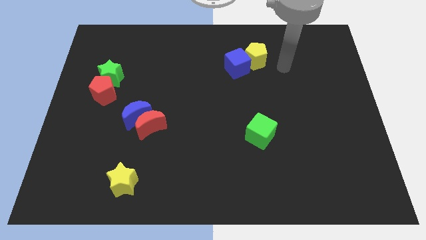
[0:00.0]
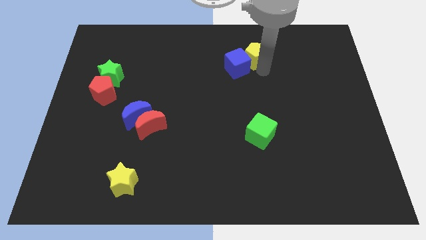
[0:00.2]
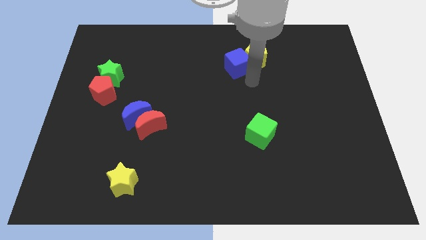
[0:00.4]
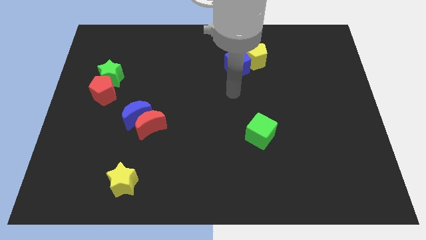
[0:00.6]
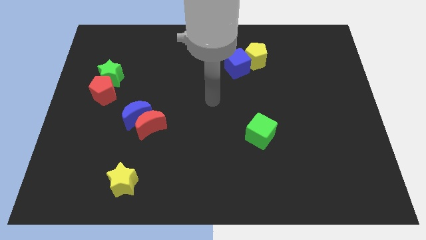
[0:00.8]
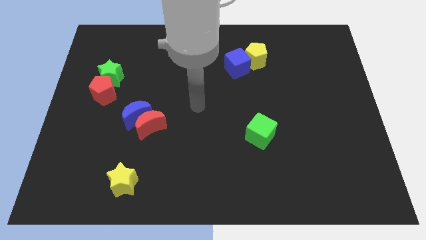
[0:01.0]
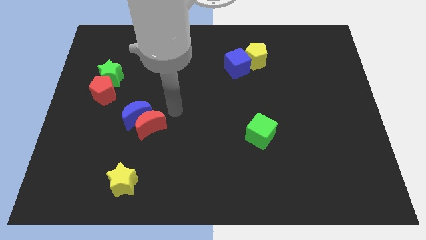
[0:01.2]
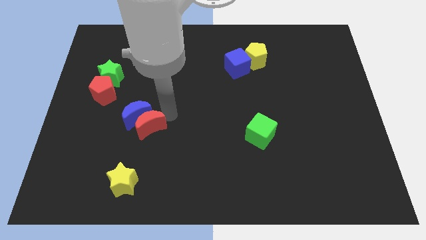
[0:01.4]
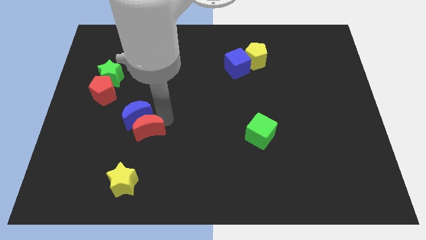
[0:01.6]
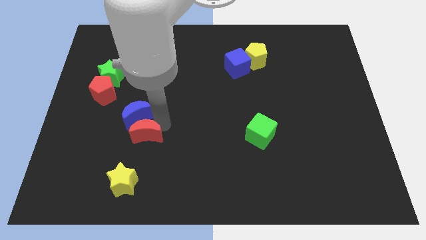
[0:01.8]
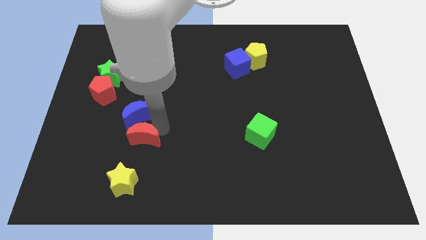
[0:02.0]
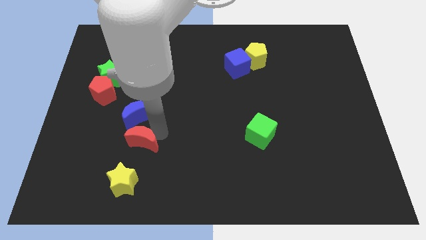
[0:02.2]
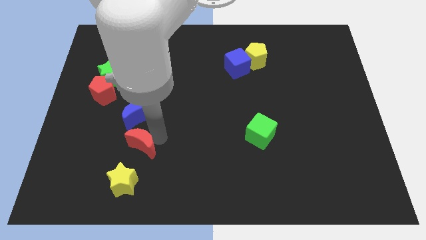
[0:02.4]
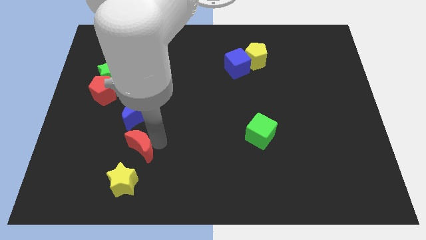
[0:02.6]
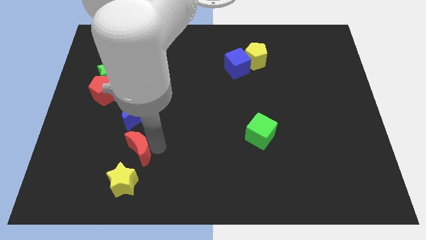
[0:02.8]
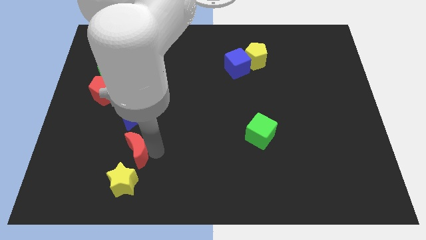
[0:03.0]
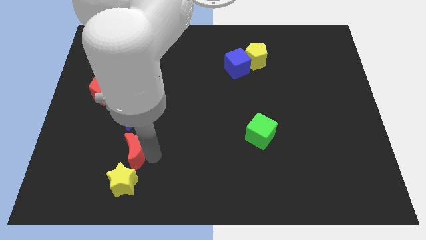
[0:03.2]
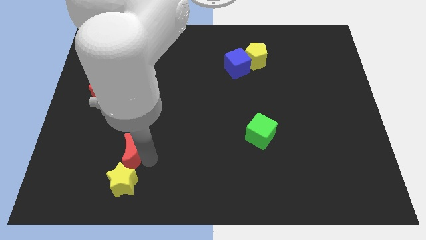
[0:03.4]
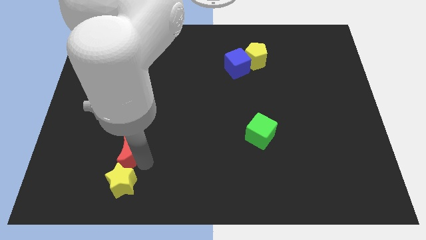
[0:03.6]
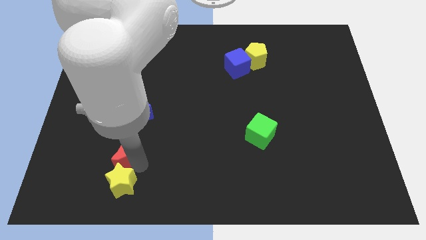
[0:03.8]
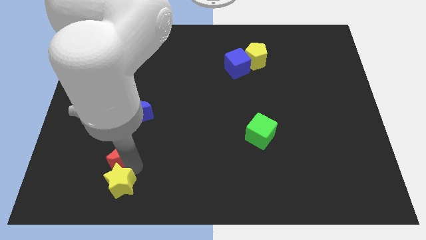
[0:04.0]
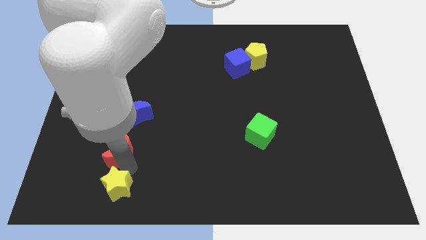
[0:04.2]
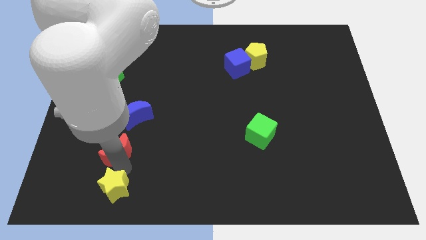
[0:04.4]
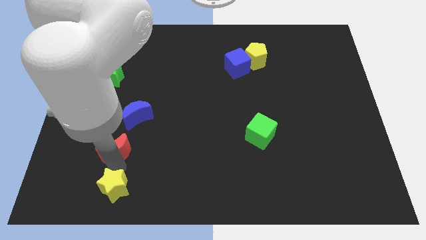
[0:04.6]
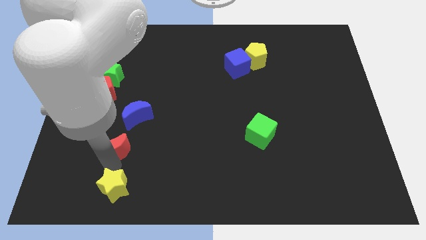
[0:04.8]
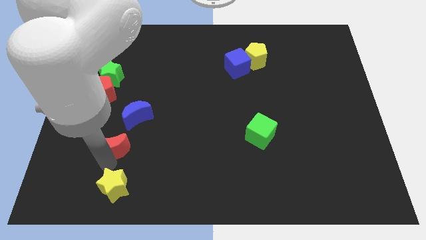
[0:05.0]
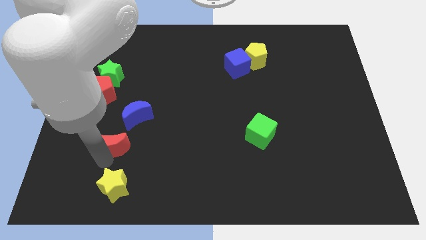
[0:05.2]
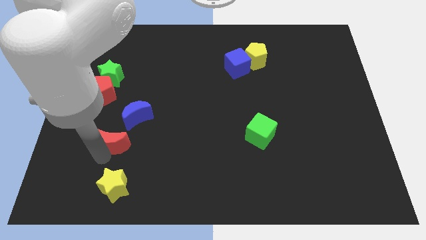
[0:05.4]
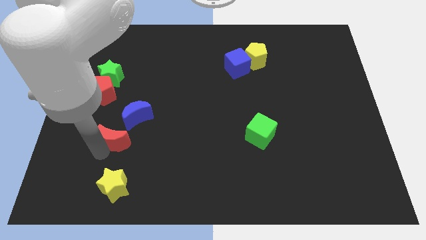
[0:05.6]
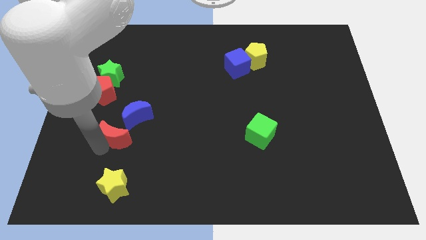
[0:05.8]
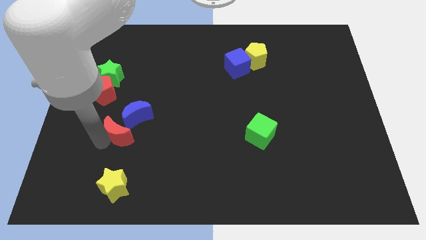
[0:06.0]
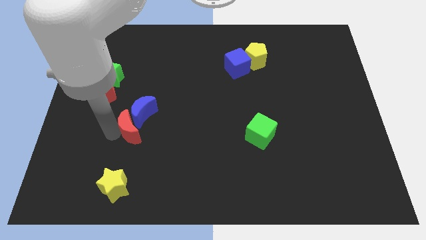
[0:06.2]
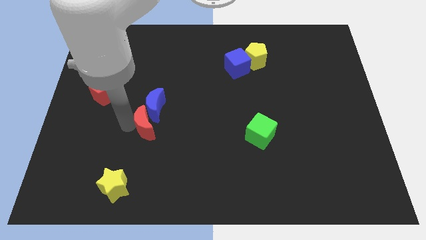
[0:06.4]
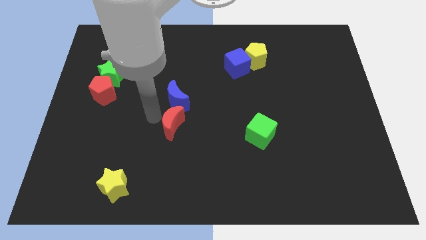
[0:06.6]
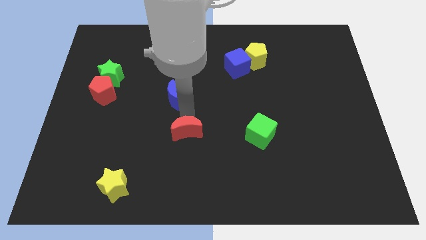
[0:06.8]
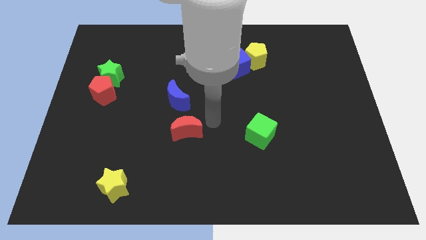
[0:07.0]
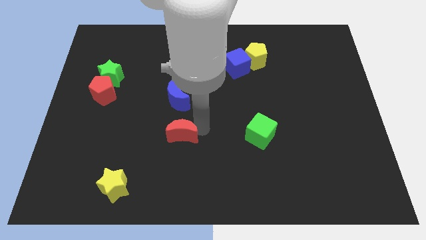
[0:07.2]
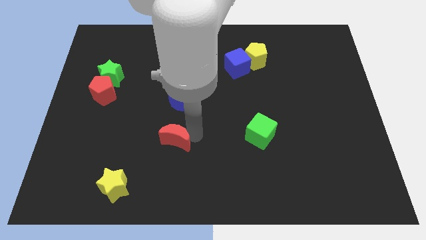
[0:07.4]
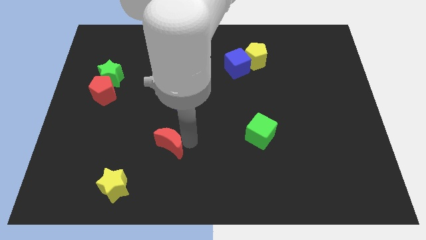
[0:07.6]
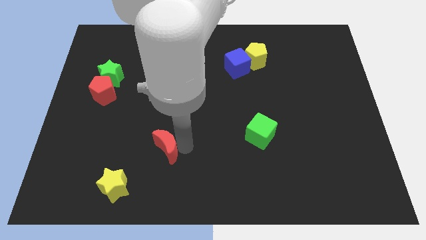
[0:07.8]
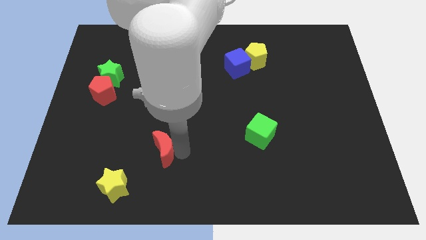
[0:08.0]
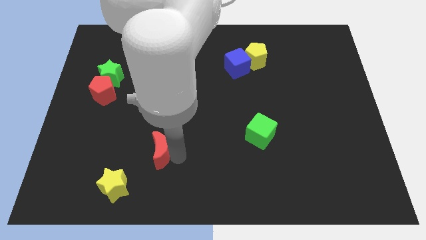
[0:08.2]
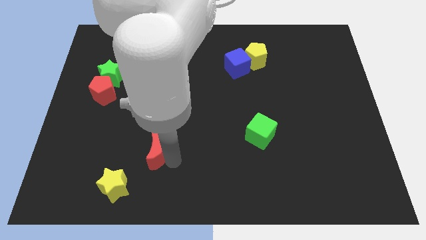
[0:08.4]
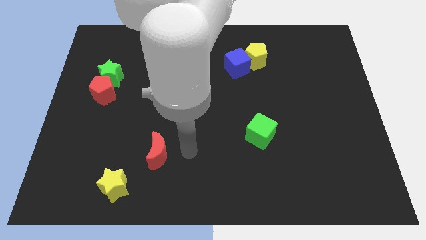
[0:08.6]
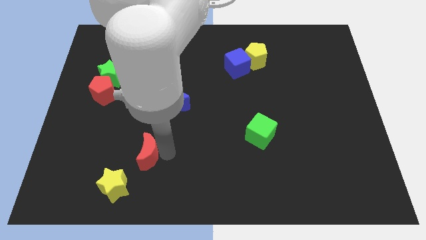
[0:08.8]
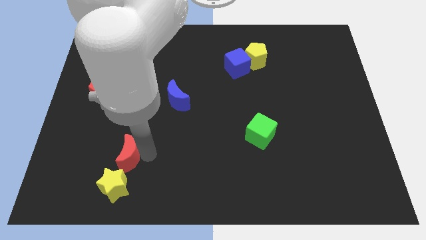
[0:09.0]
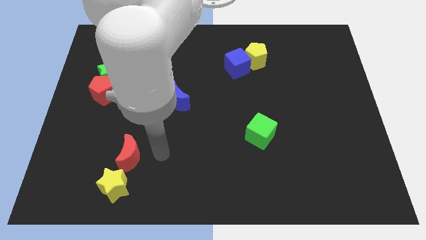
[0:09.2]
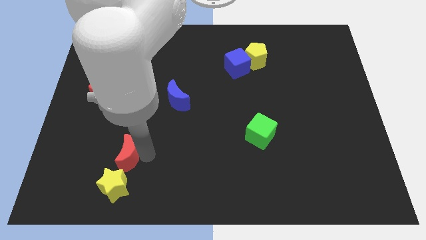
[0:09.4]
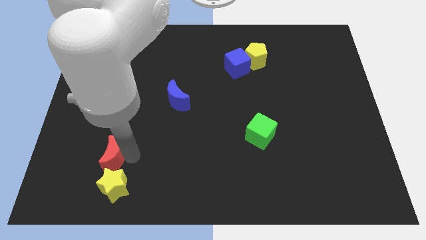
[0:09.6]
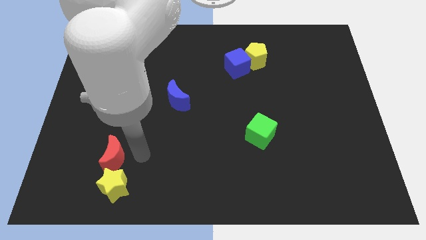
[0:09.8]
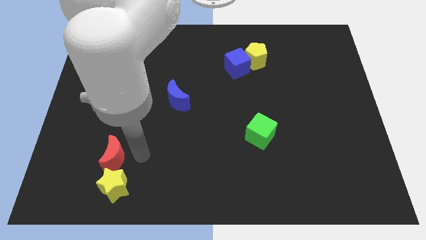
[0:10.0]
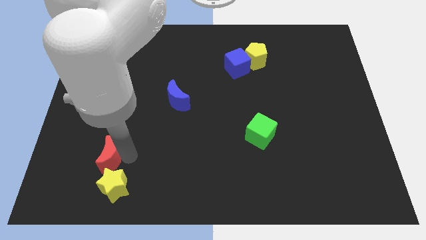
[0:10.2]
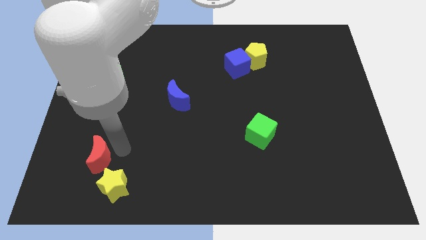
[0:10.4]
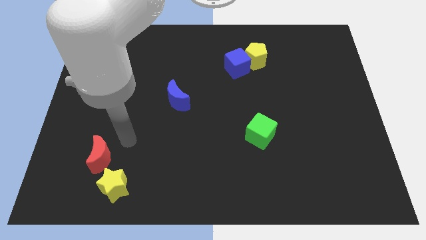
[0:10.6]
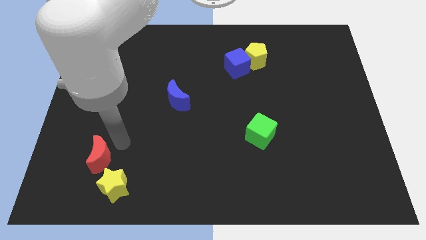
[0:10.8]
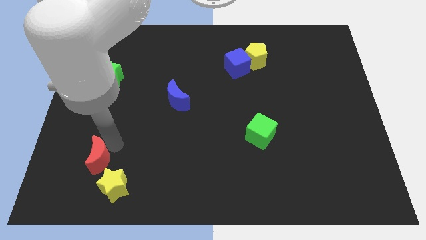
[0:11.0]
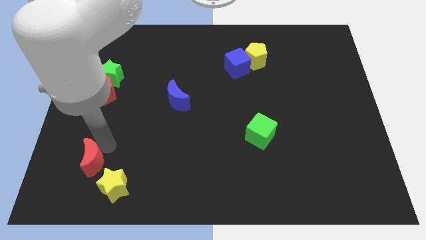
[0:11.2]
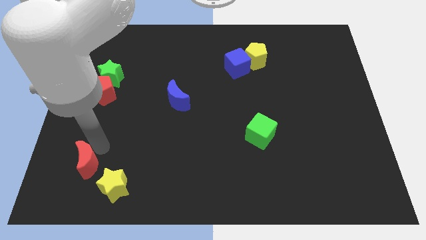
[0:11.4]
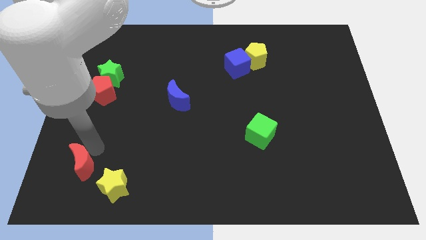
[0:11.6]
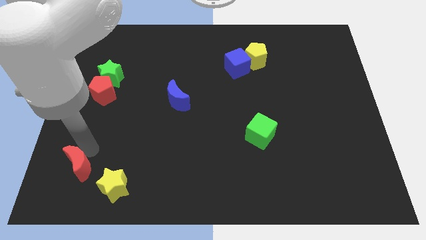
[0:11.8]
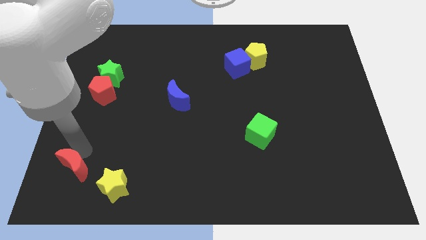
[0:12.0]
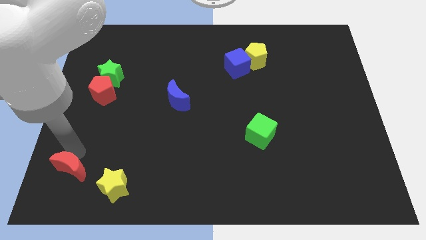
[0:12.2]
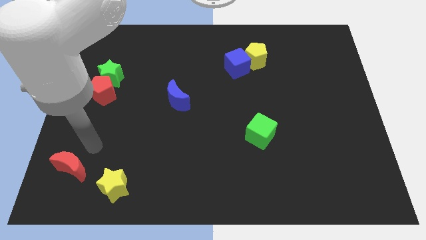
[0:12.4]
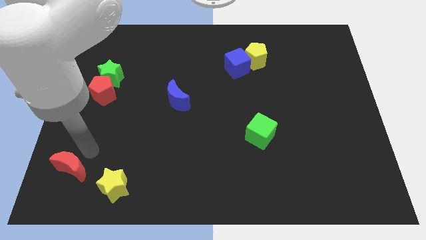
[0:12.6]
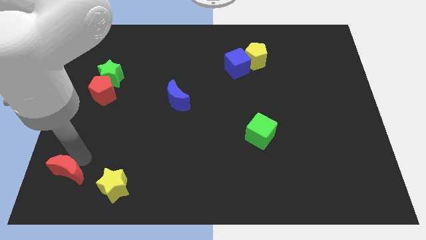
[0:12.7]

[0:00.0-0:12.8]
slide the red moon to the bottom left of the board
